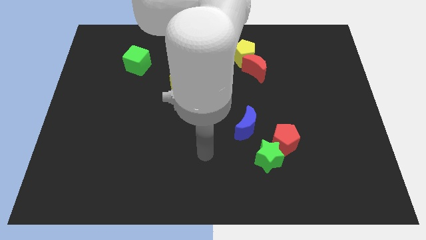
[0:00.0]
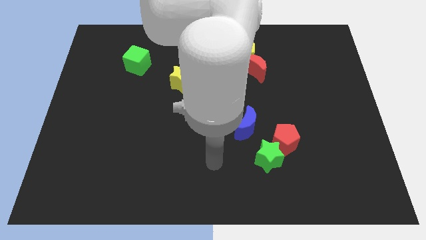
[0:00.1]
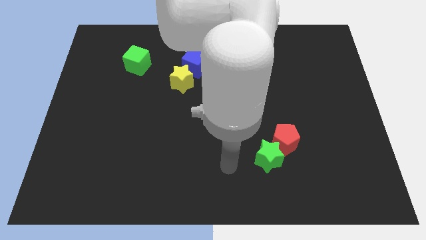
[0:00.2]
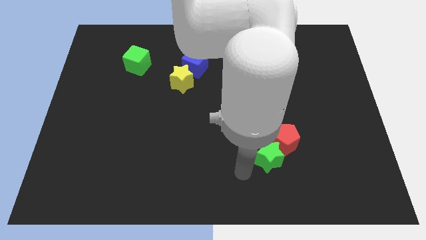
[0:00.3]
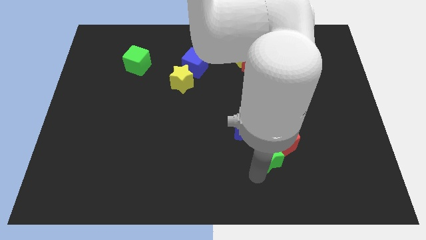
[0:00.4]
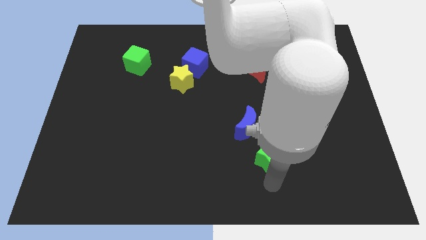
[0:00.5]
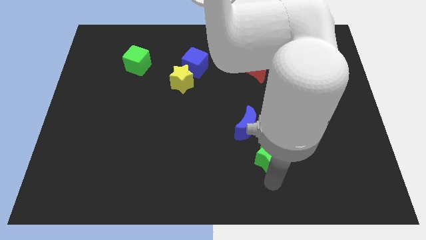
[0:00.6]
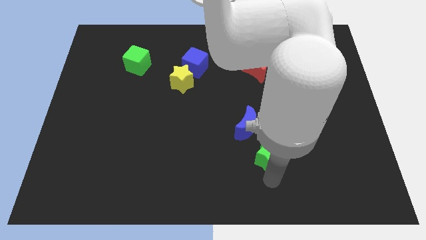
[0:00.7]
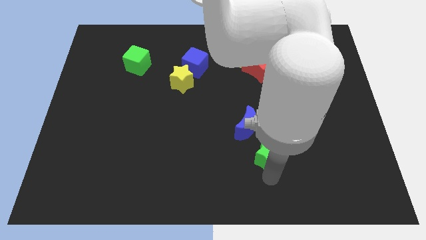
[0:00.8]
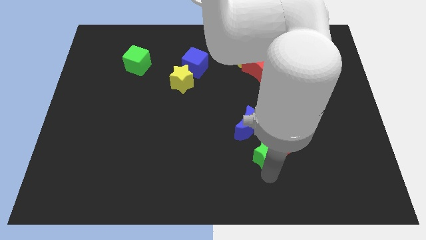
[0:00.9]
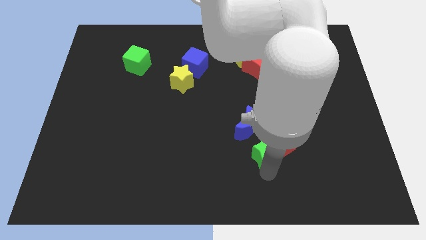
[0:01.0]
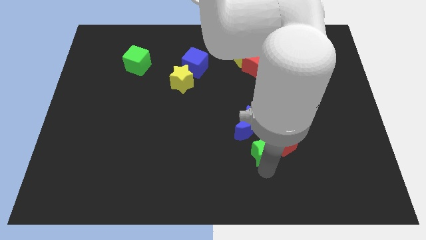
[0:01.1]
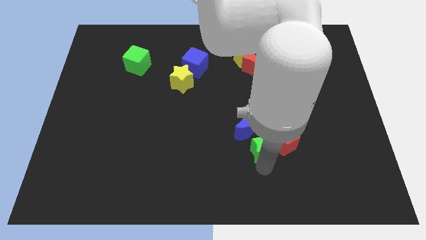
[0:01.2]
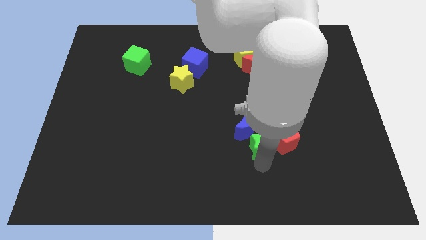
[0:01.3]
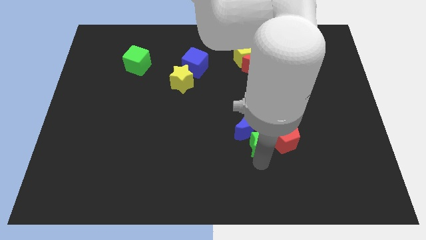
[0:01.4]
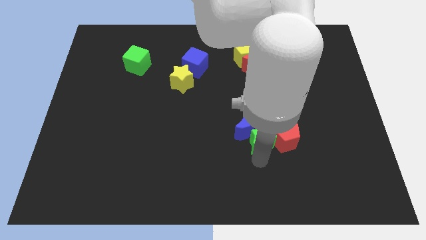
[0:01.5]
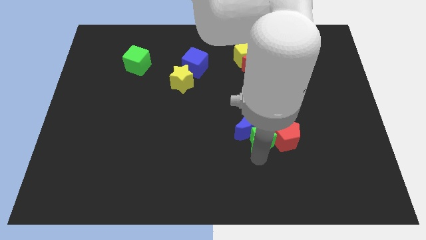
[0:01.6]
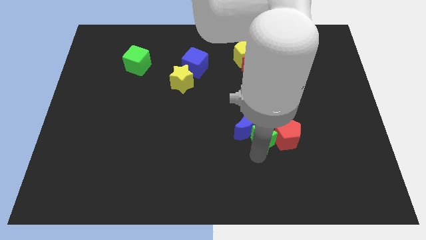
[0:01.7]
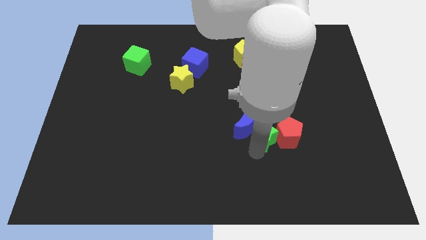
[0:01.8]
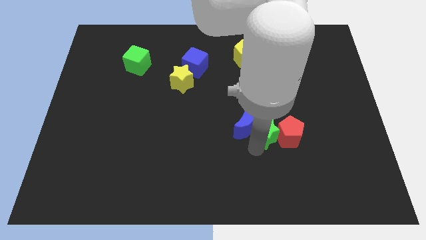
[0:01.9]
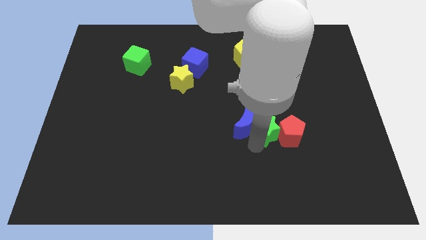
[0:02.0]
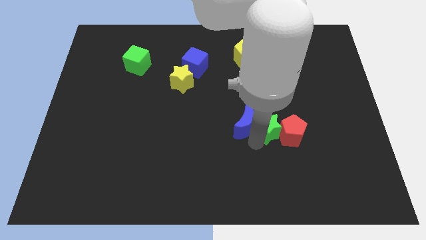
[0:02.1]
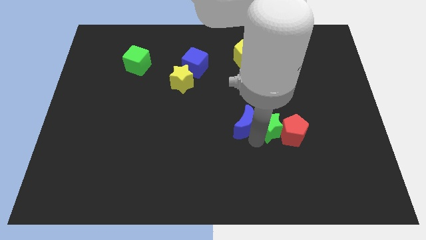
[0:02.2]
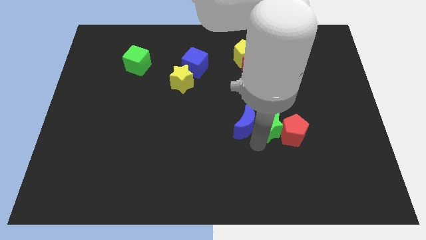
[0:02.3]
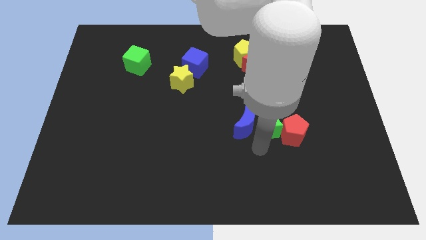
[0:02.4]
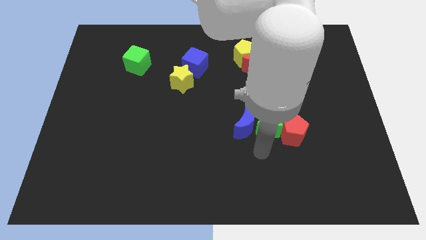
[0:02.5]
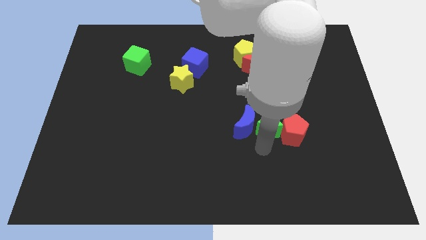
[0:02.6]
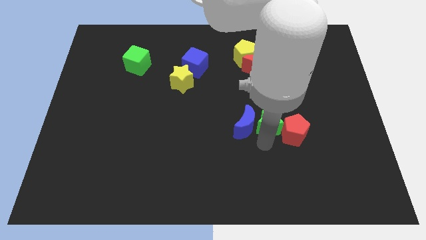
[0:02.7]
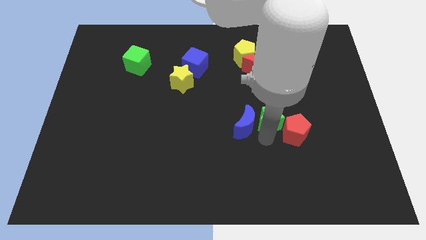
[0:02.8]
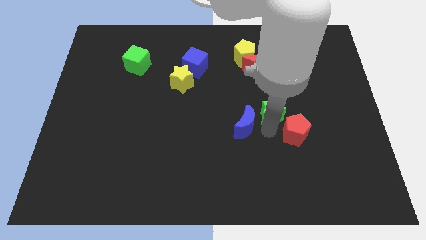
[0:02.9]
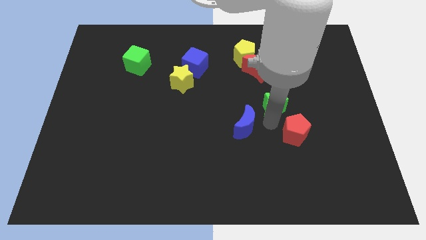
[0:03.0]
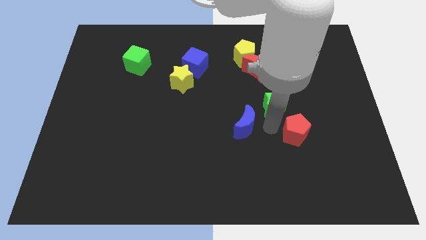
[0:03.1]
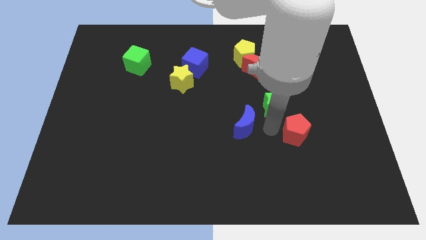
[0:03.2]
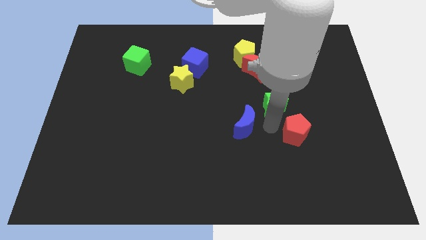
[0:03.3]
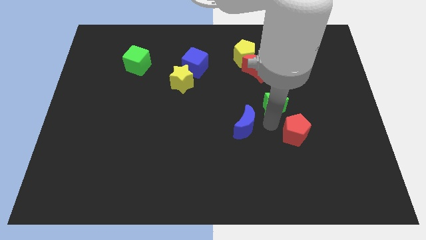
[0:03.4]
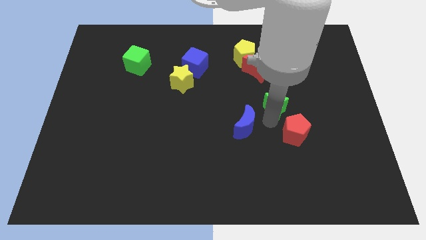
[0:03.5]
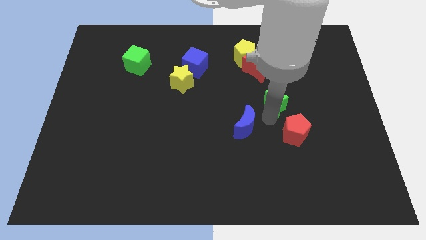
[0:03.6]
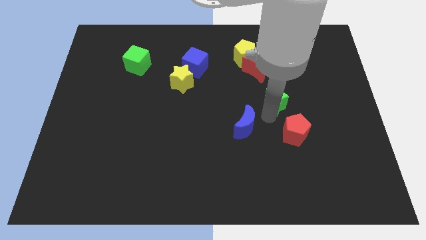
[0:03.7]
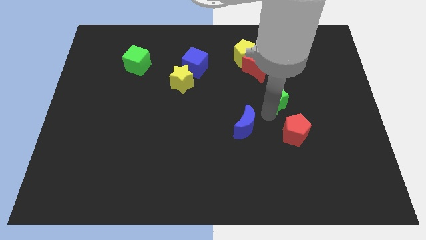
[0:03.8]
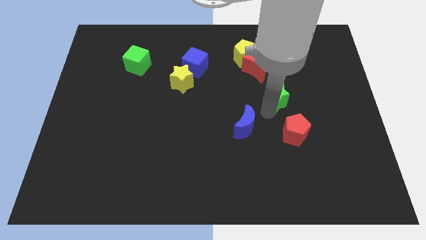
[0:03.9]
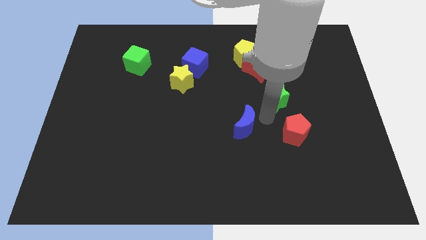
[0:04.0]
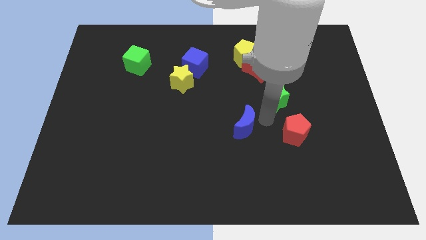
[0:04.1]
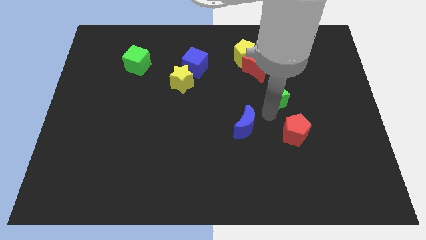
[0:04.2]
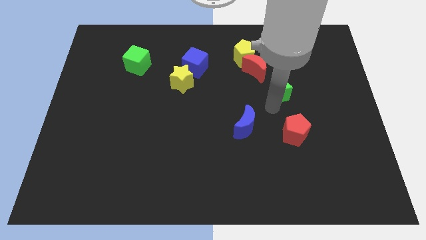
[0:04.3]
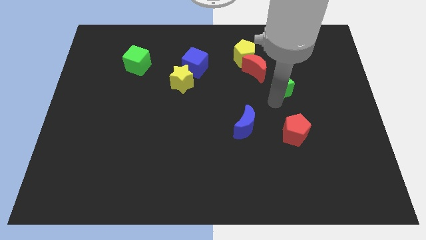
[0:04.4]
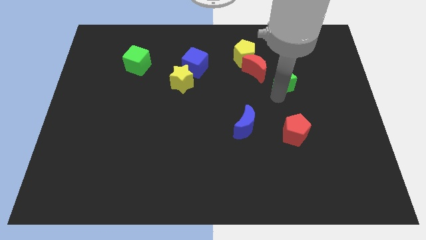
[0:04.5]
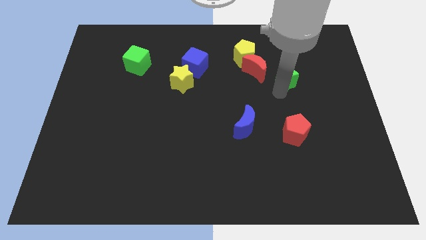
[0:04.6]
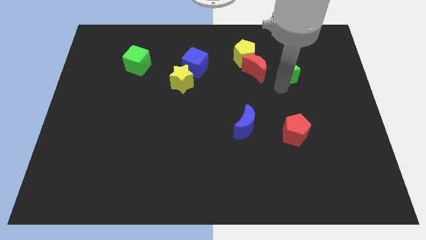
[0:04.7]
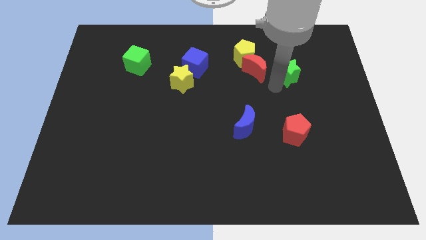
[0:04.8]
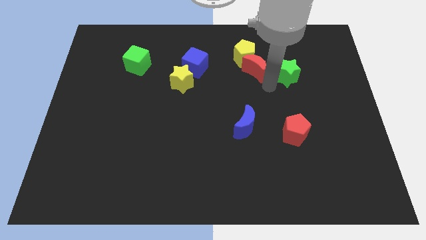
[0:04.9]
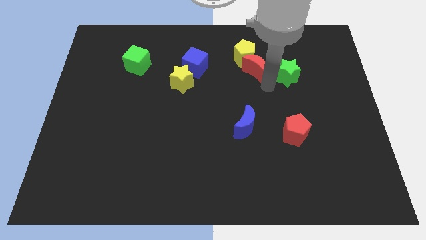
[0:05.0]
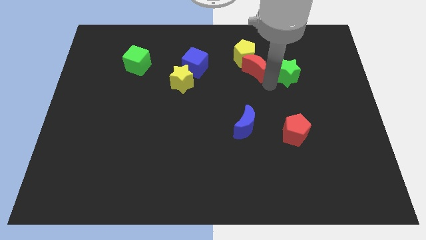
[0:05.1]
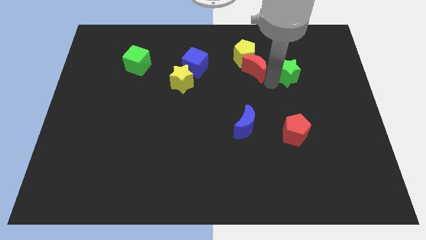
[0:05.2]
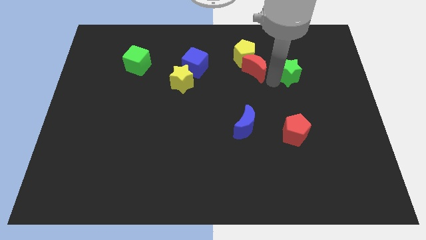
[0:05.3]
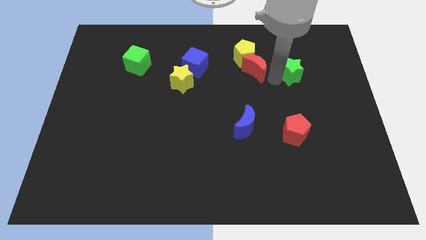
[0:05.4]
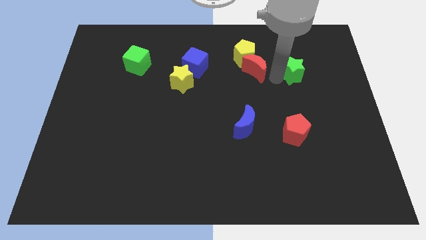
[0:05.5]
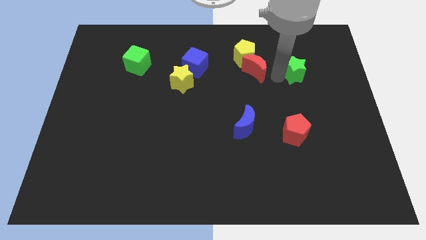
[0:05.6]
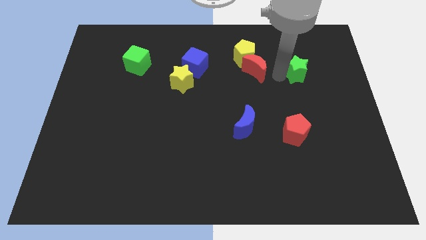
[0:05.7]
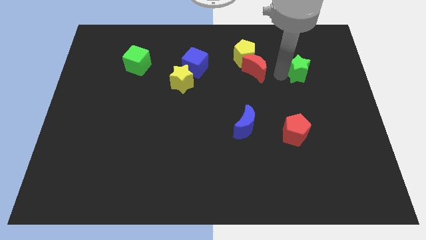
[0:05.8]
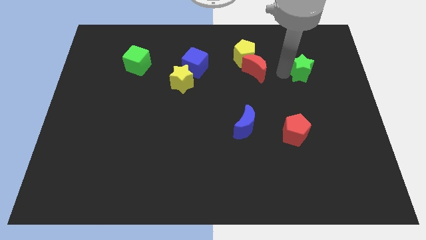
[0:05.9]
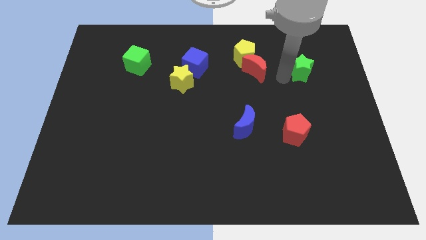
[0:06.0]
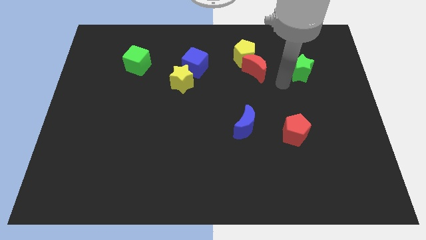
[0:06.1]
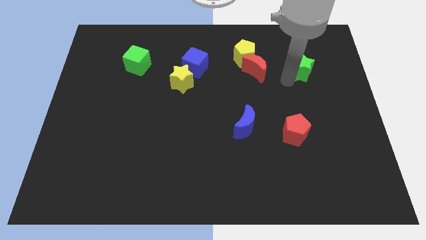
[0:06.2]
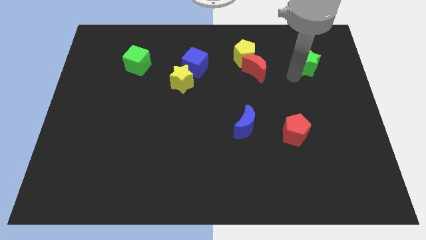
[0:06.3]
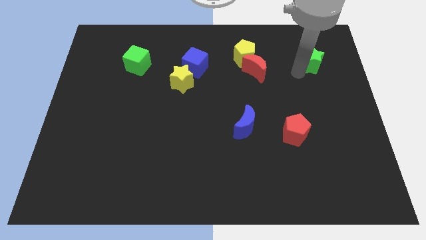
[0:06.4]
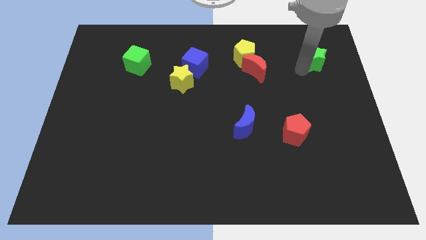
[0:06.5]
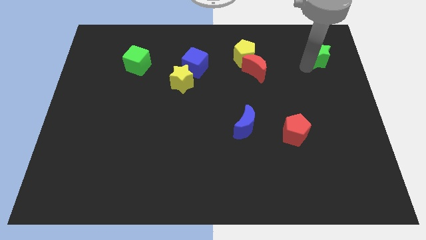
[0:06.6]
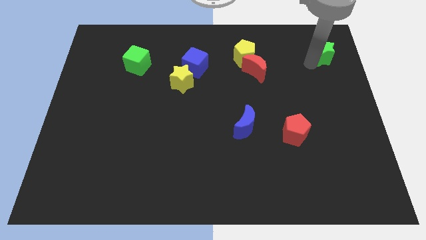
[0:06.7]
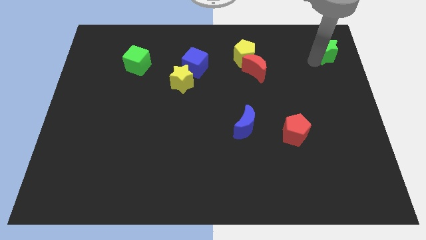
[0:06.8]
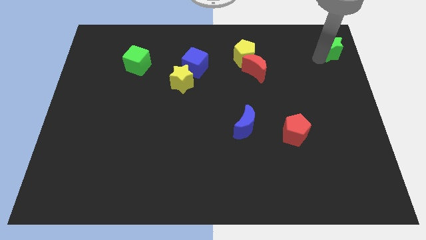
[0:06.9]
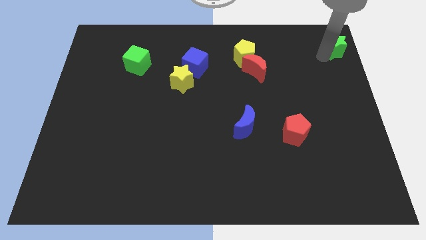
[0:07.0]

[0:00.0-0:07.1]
slide the green star to the upper right corner
